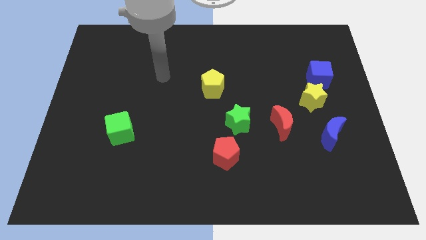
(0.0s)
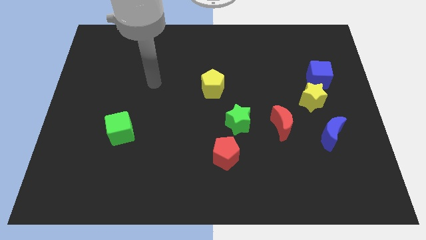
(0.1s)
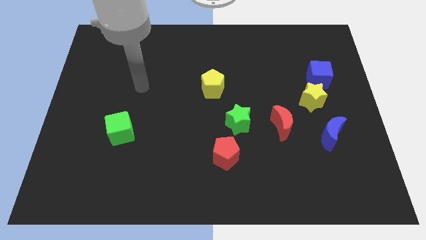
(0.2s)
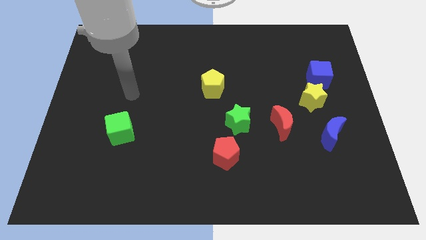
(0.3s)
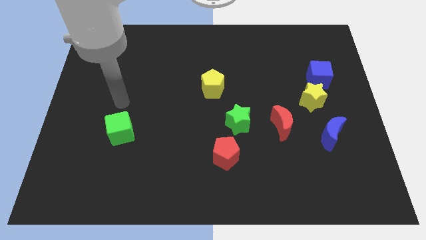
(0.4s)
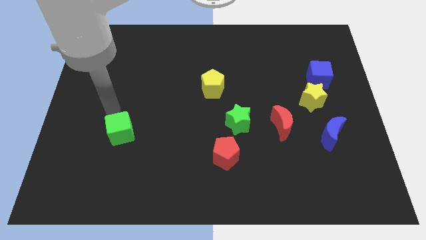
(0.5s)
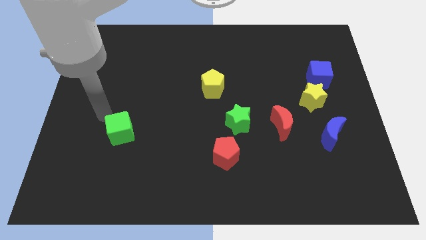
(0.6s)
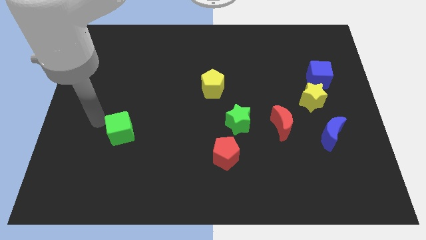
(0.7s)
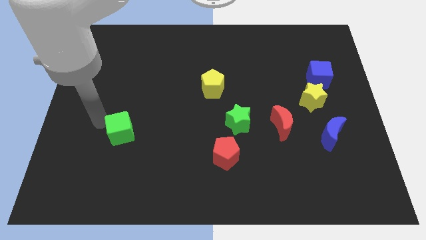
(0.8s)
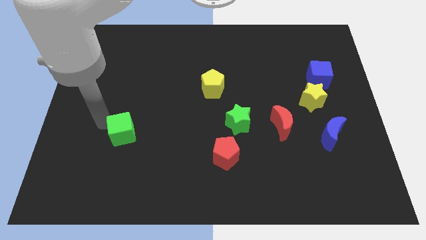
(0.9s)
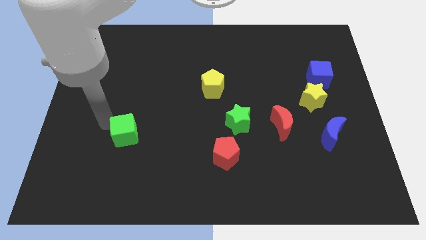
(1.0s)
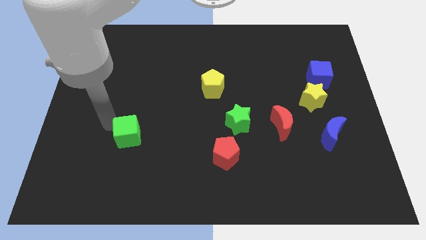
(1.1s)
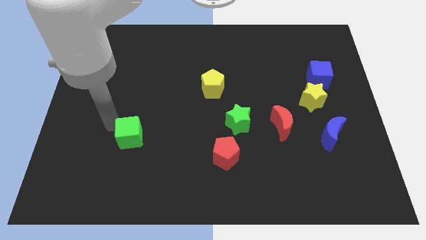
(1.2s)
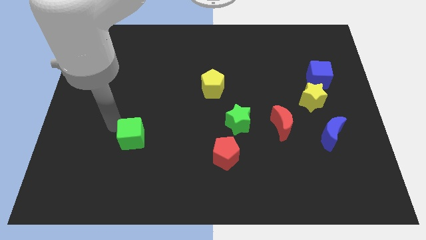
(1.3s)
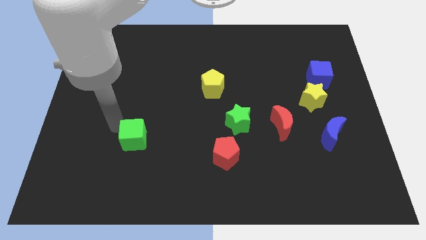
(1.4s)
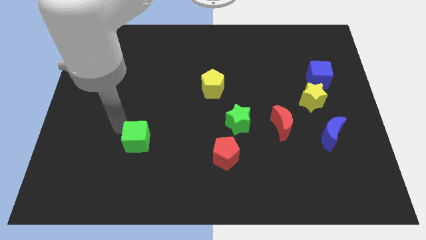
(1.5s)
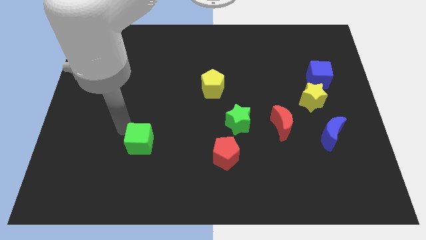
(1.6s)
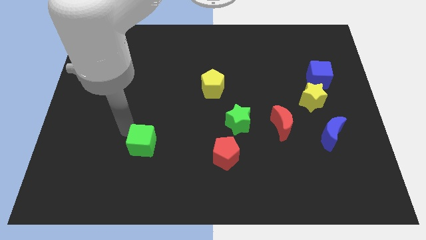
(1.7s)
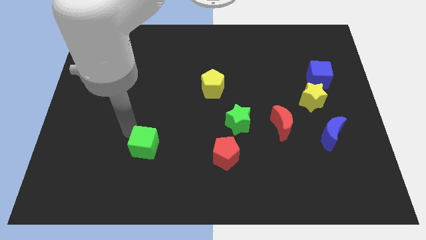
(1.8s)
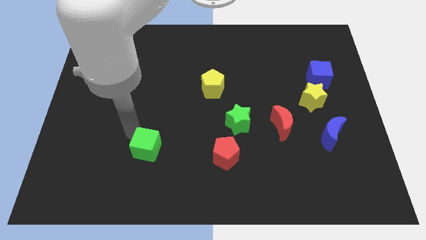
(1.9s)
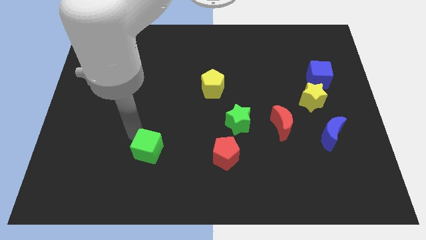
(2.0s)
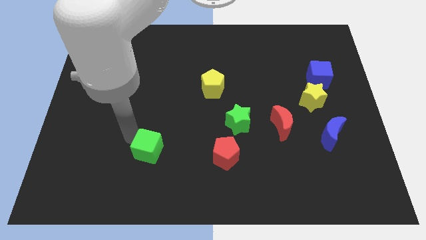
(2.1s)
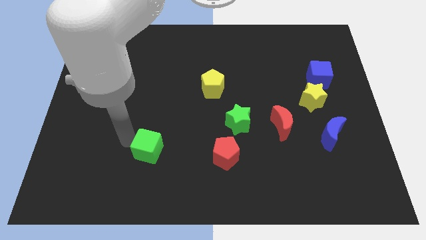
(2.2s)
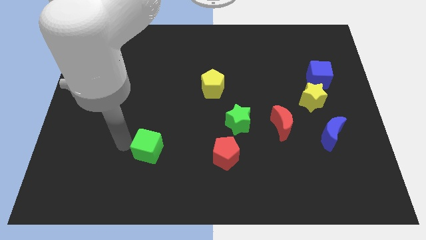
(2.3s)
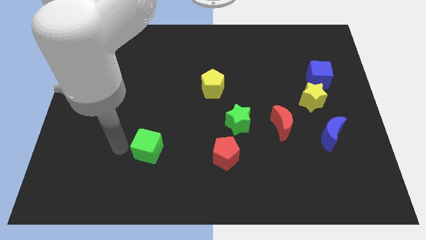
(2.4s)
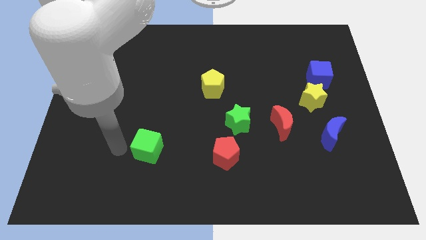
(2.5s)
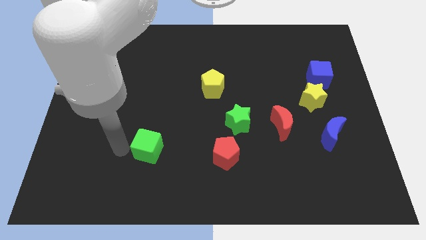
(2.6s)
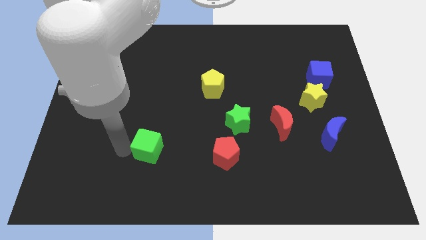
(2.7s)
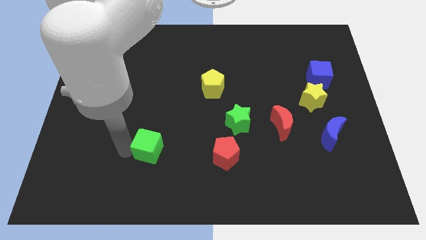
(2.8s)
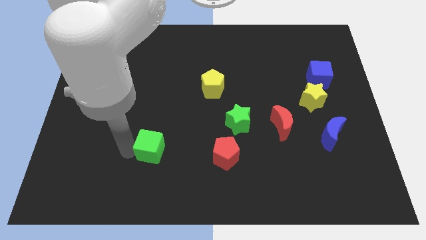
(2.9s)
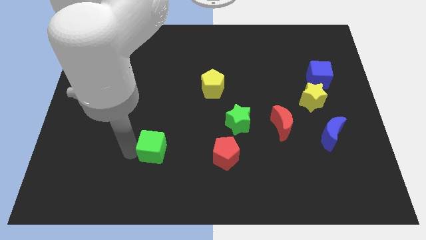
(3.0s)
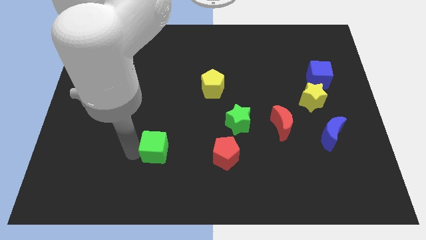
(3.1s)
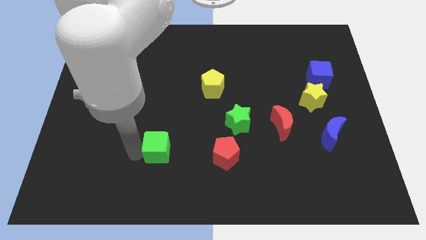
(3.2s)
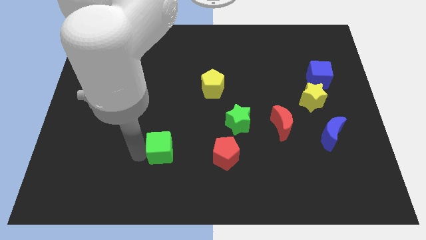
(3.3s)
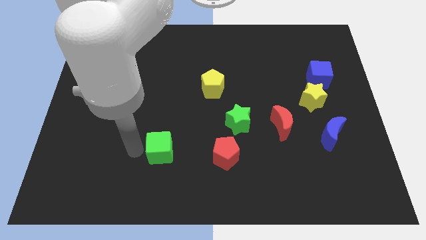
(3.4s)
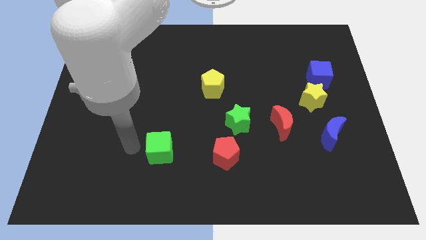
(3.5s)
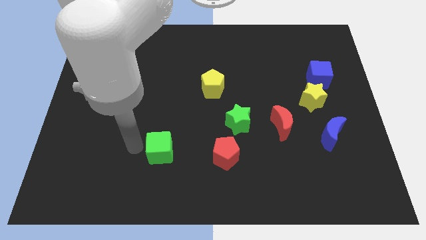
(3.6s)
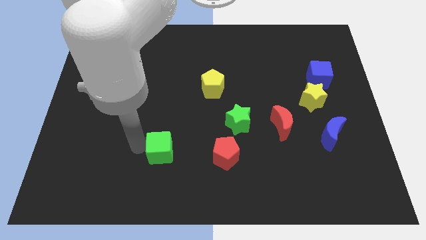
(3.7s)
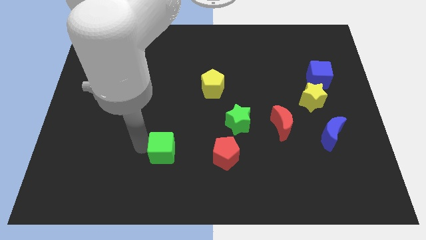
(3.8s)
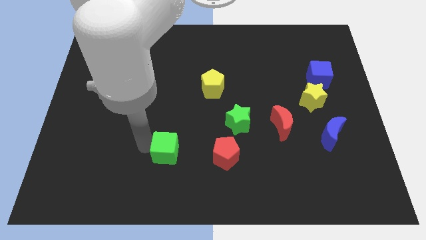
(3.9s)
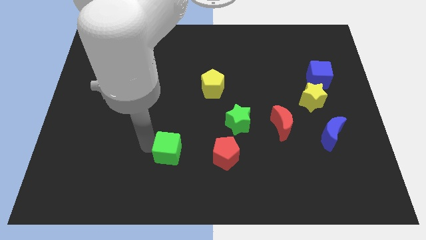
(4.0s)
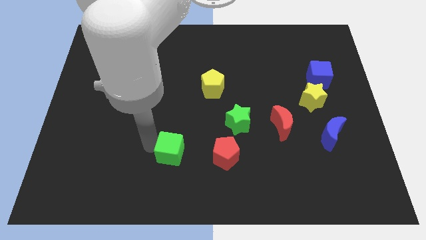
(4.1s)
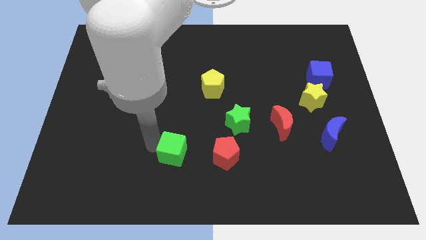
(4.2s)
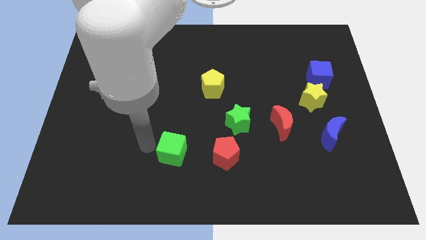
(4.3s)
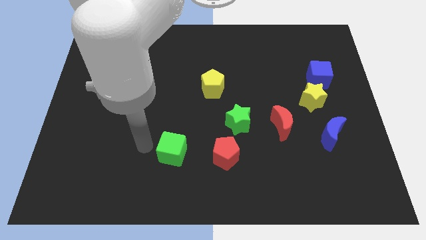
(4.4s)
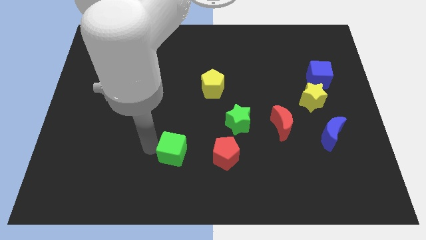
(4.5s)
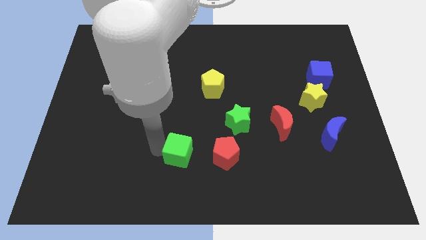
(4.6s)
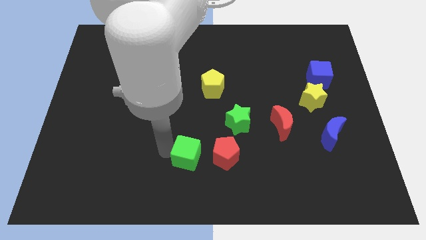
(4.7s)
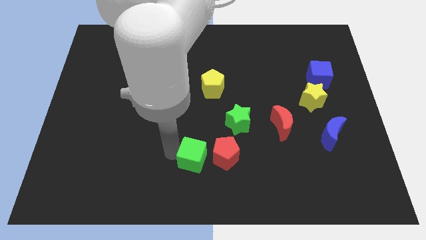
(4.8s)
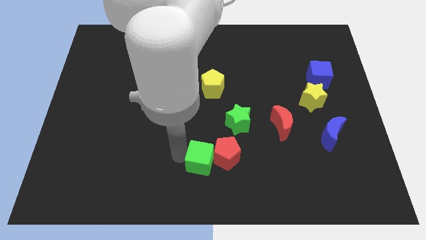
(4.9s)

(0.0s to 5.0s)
move the green cube to the red pentagon

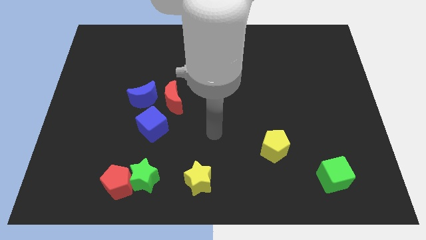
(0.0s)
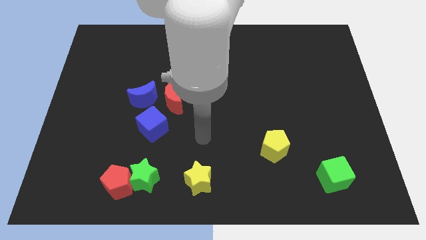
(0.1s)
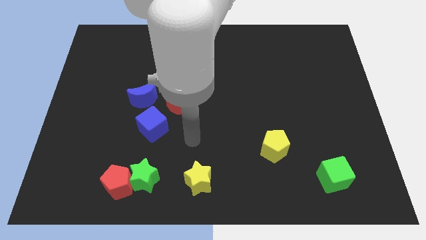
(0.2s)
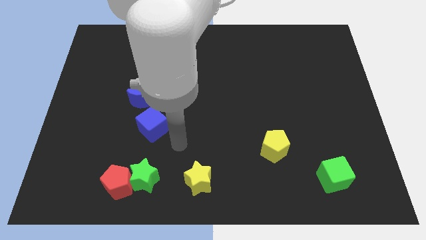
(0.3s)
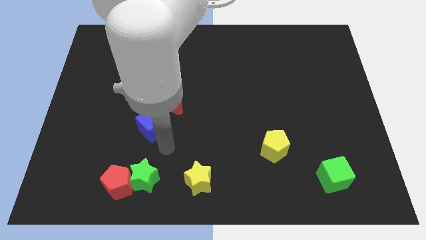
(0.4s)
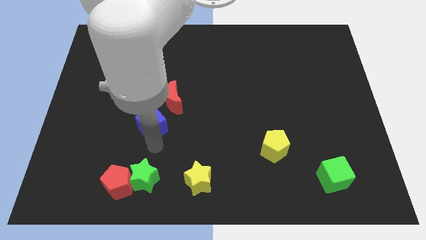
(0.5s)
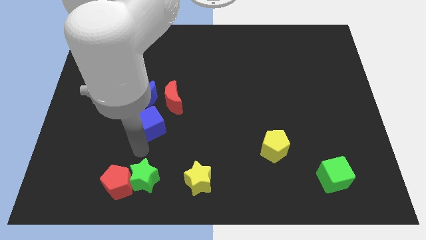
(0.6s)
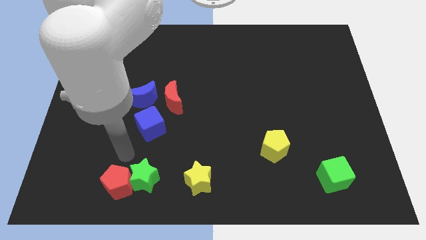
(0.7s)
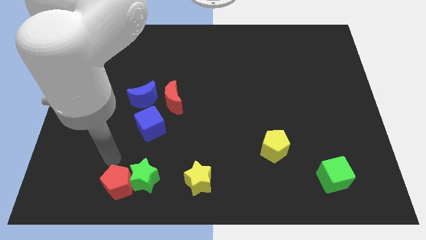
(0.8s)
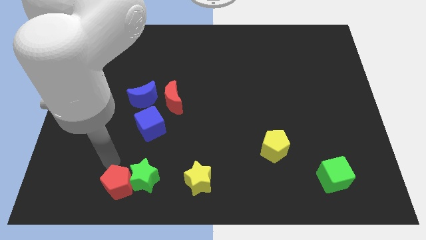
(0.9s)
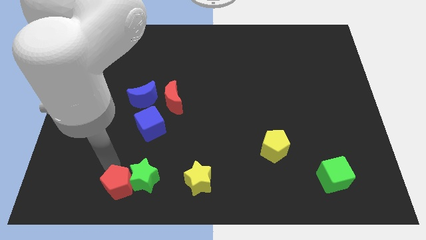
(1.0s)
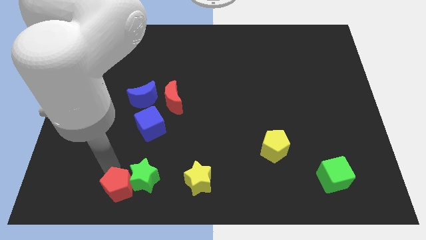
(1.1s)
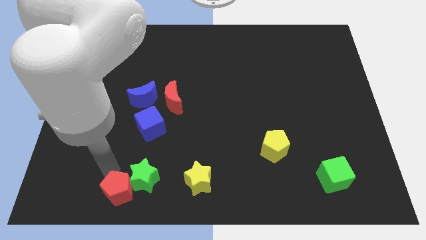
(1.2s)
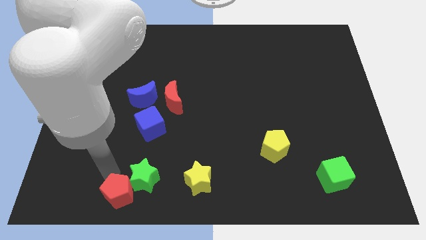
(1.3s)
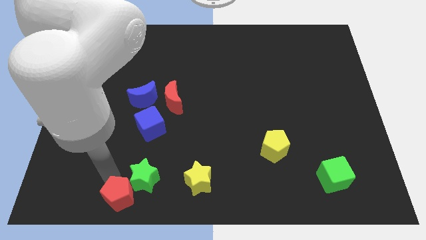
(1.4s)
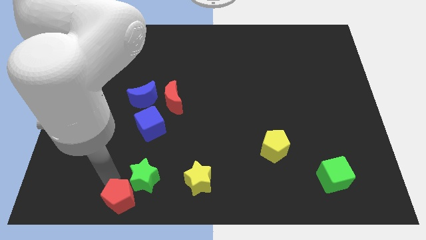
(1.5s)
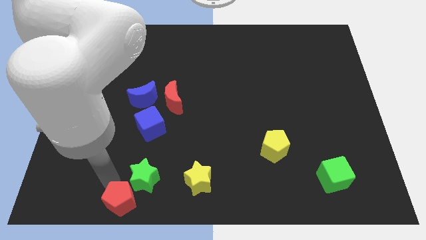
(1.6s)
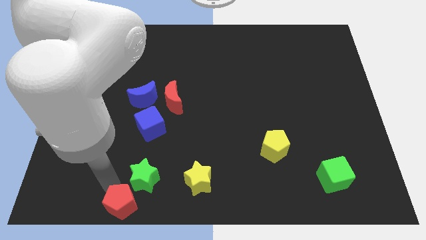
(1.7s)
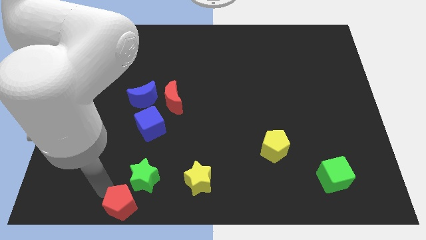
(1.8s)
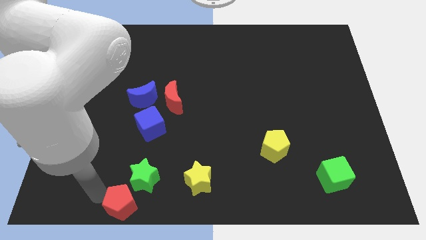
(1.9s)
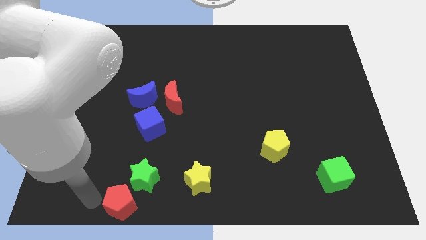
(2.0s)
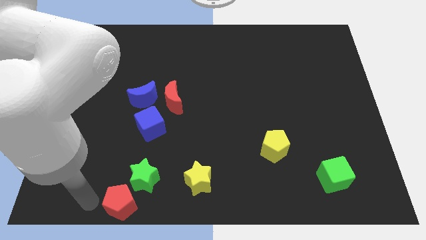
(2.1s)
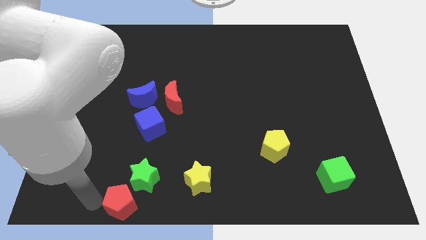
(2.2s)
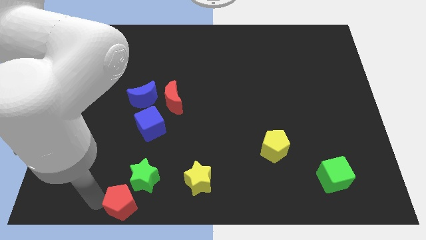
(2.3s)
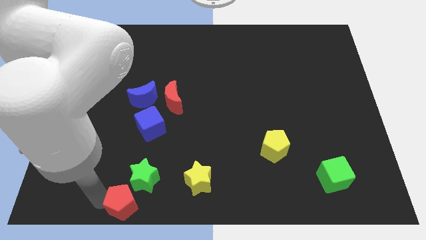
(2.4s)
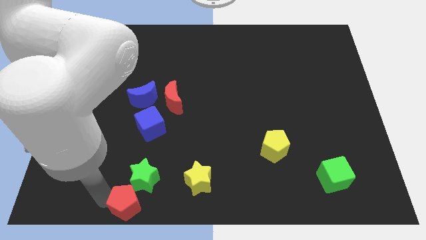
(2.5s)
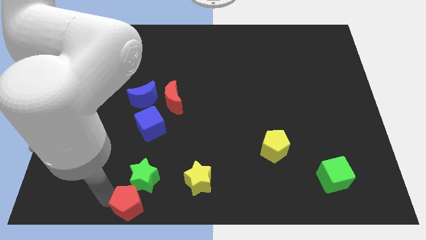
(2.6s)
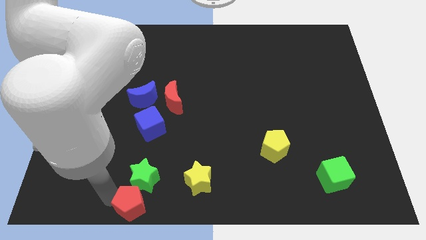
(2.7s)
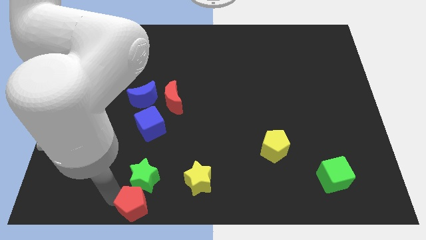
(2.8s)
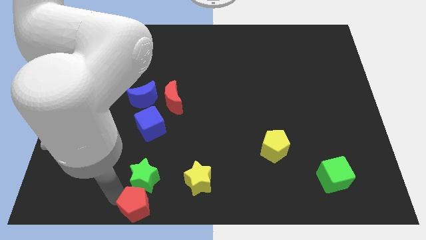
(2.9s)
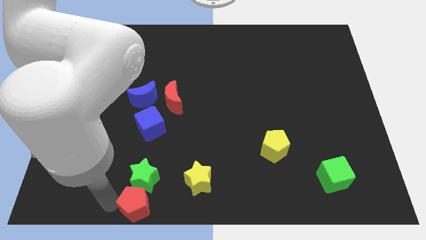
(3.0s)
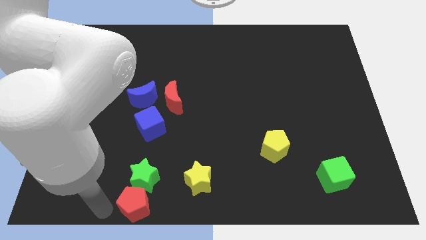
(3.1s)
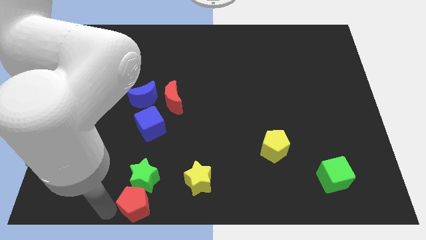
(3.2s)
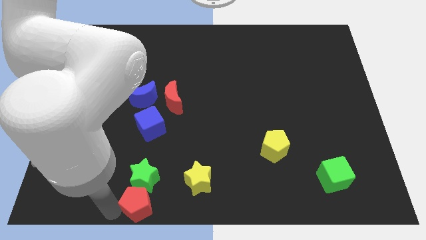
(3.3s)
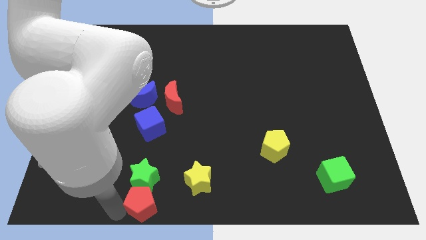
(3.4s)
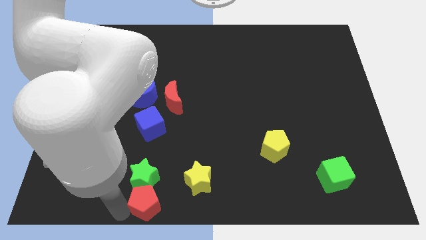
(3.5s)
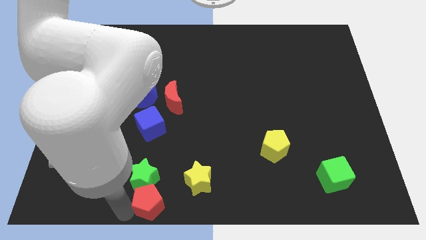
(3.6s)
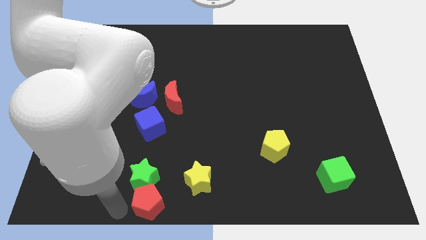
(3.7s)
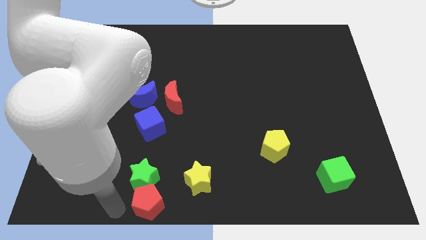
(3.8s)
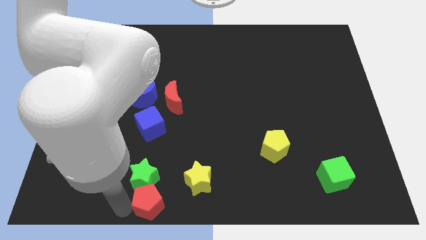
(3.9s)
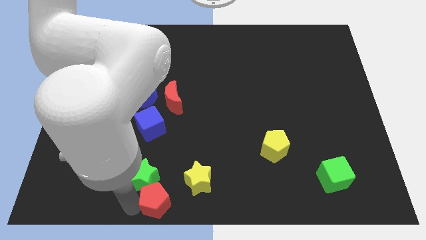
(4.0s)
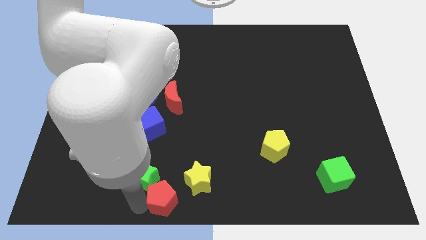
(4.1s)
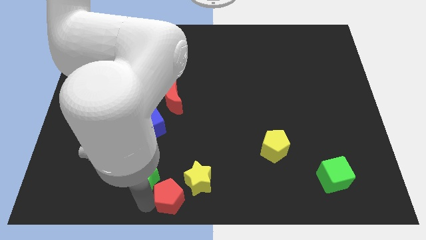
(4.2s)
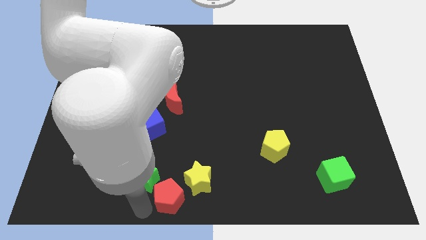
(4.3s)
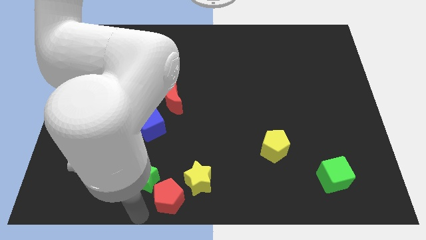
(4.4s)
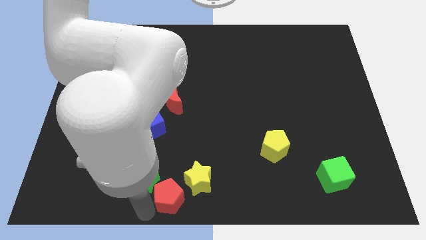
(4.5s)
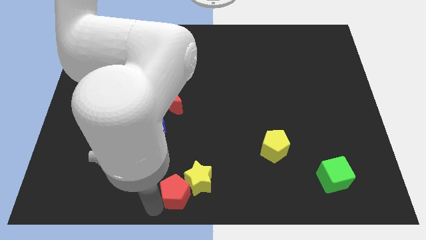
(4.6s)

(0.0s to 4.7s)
move the red pentagon close to the yellow star
